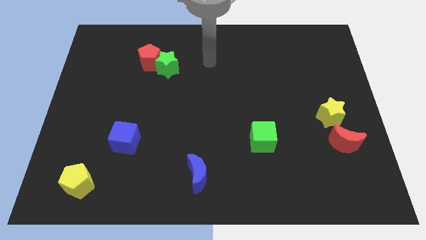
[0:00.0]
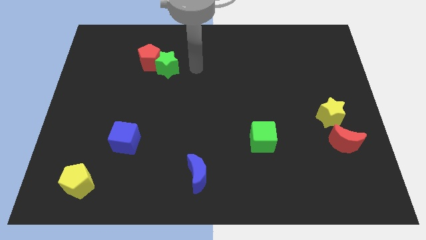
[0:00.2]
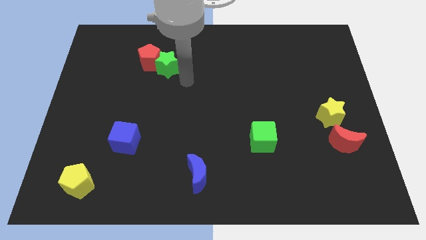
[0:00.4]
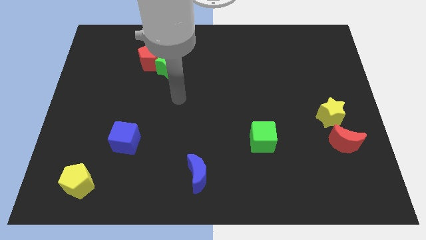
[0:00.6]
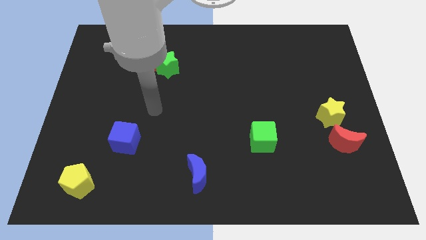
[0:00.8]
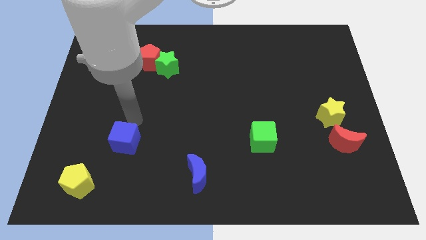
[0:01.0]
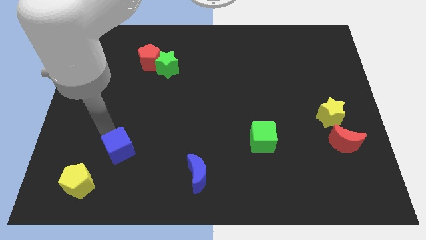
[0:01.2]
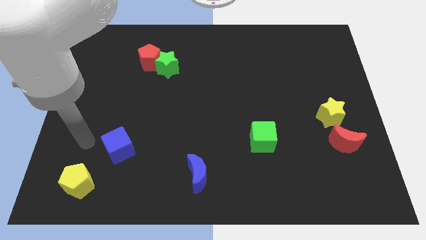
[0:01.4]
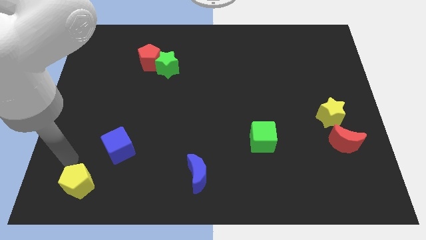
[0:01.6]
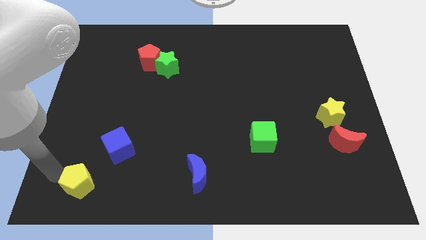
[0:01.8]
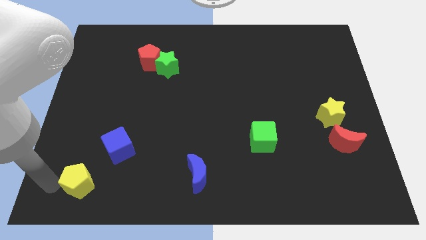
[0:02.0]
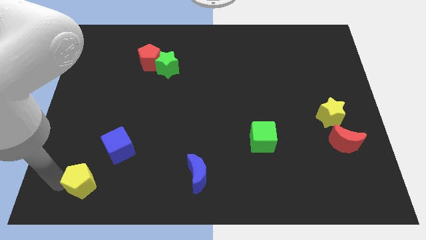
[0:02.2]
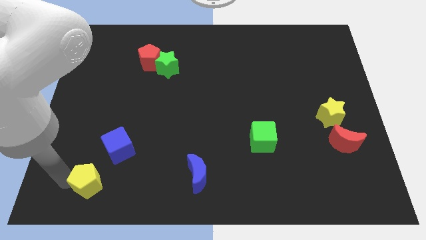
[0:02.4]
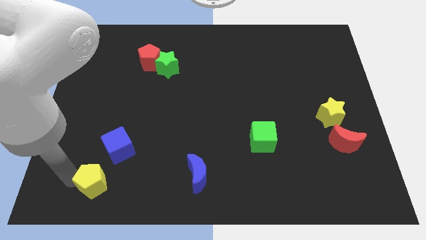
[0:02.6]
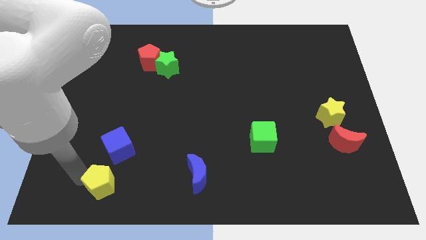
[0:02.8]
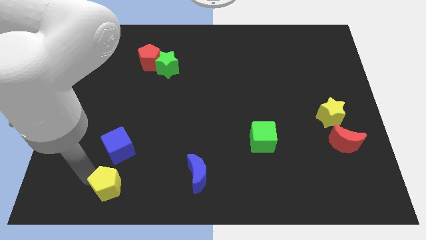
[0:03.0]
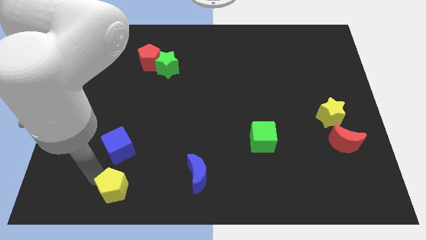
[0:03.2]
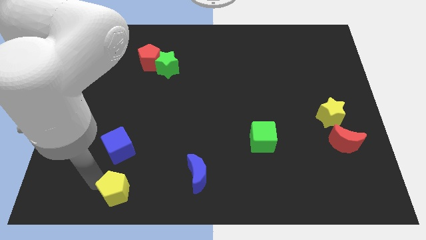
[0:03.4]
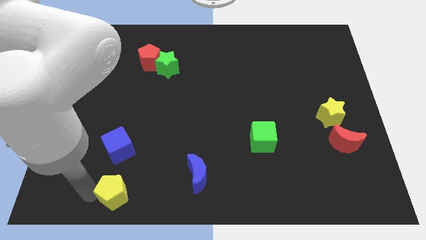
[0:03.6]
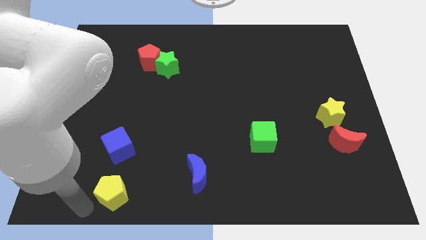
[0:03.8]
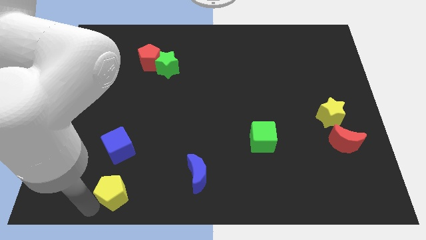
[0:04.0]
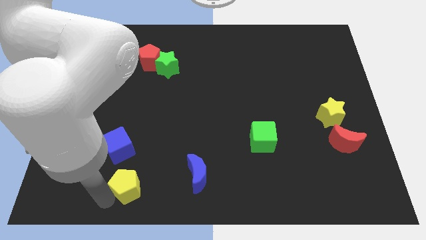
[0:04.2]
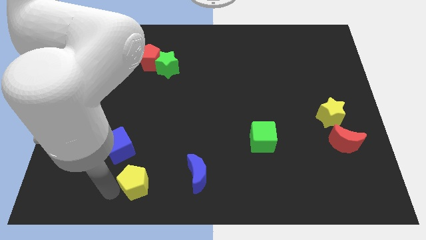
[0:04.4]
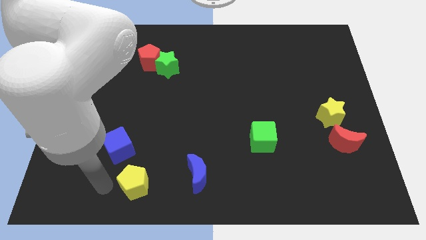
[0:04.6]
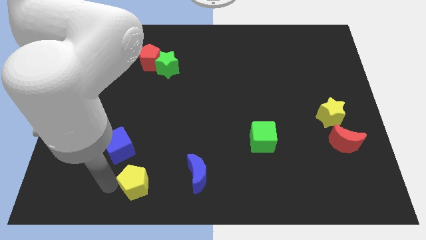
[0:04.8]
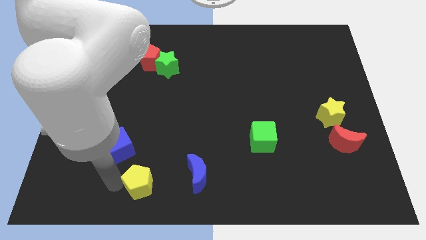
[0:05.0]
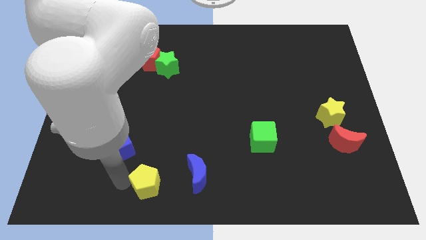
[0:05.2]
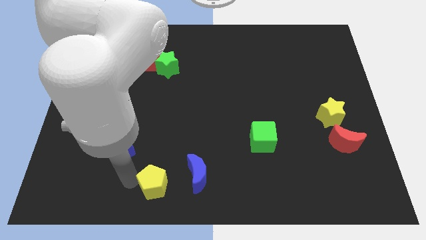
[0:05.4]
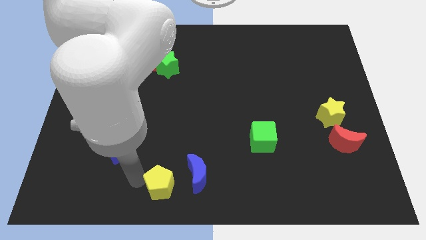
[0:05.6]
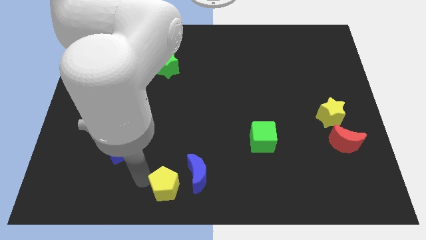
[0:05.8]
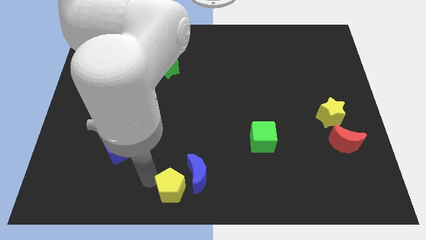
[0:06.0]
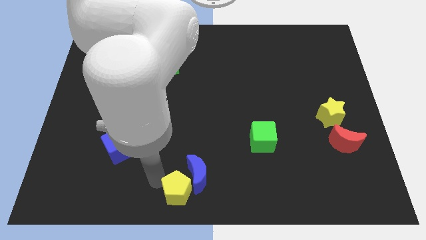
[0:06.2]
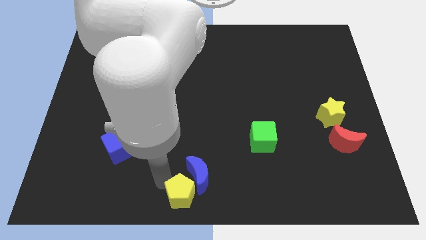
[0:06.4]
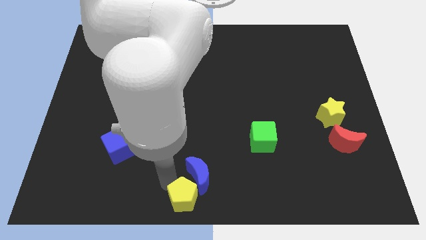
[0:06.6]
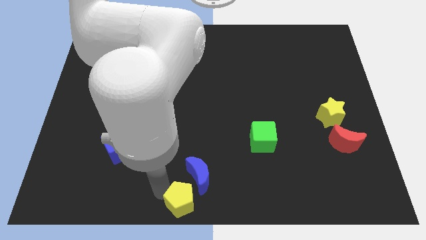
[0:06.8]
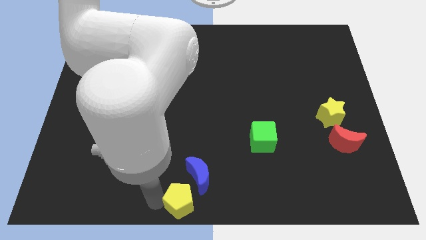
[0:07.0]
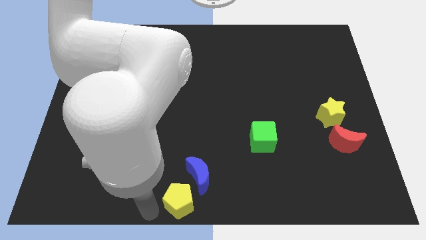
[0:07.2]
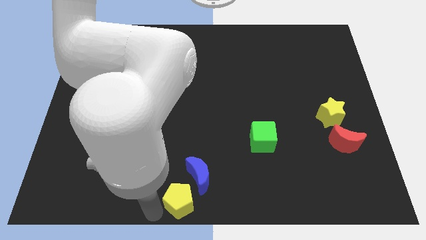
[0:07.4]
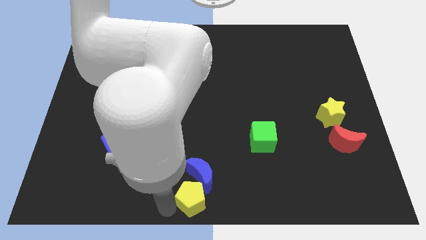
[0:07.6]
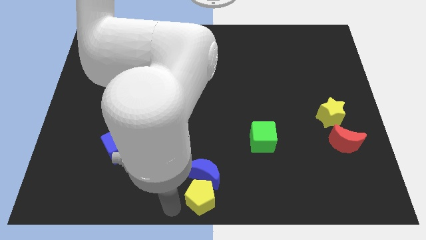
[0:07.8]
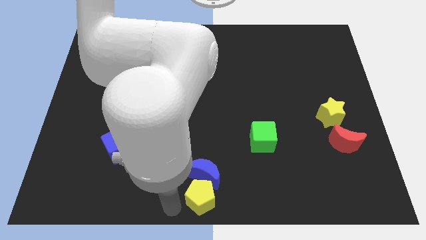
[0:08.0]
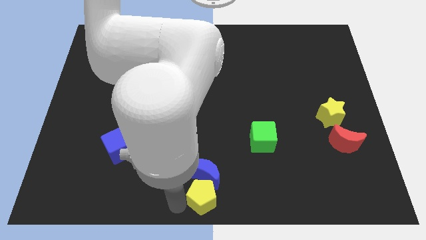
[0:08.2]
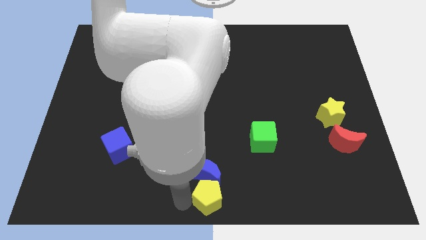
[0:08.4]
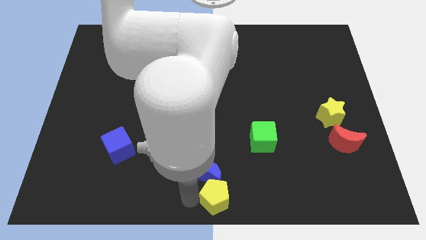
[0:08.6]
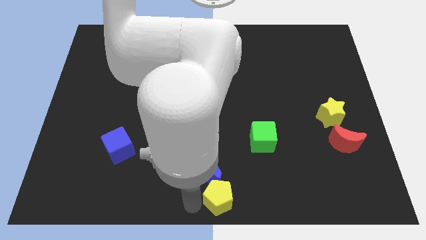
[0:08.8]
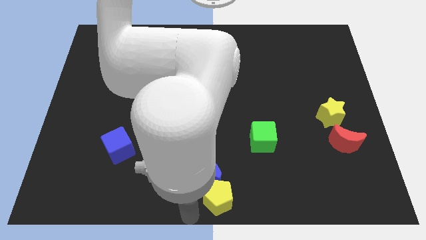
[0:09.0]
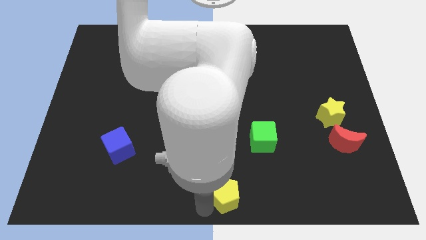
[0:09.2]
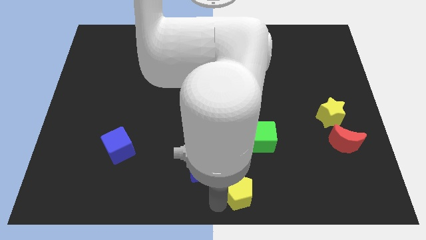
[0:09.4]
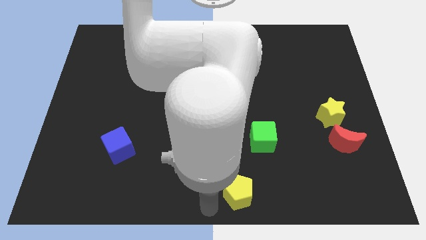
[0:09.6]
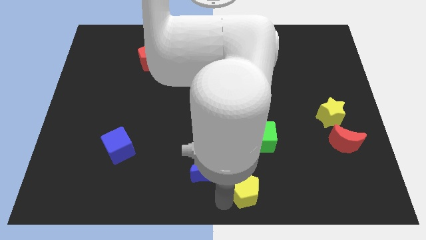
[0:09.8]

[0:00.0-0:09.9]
slide the yellow pentagon below the green cube

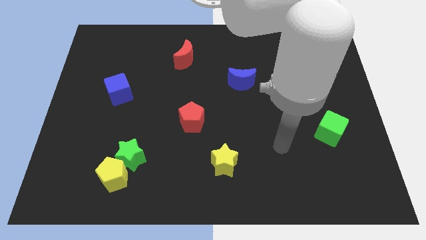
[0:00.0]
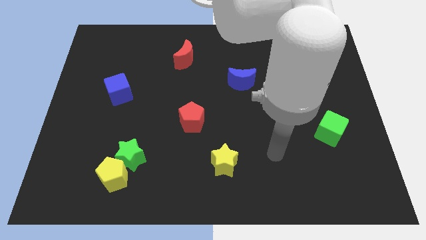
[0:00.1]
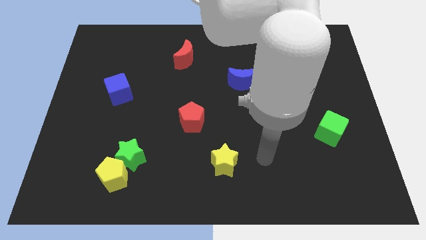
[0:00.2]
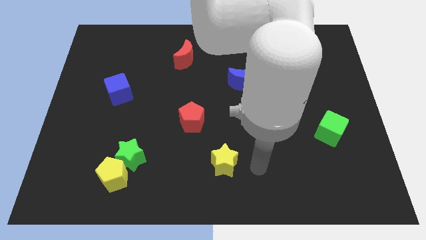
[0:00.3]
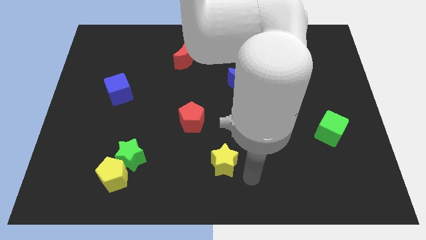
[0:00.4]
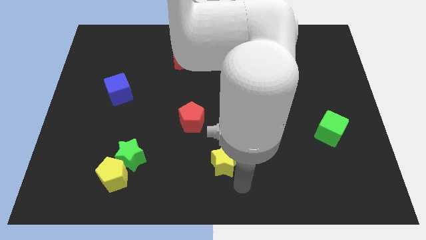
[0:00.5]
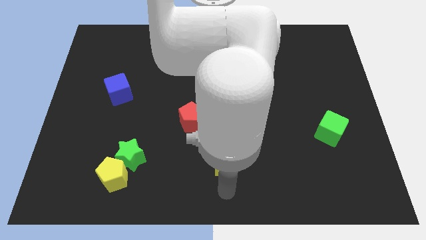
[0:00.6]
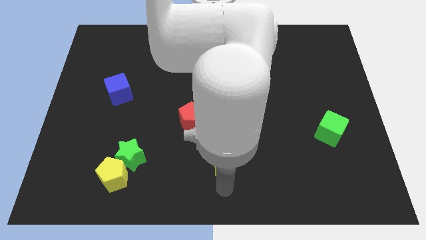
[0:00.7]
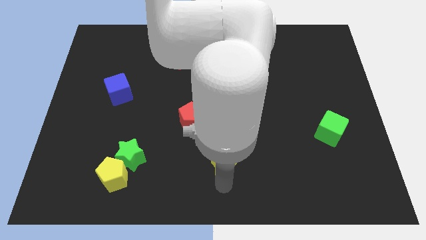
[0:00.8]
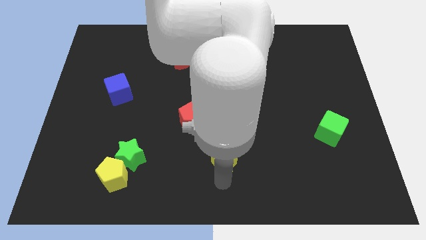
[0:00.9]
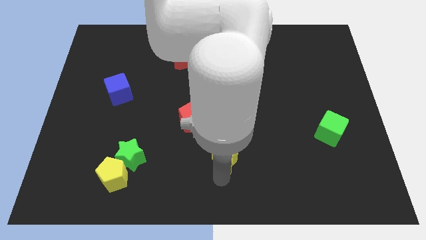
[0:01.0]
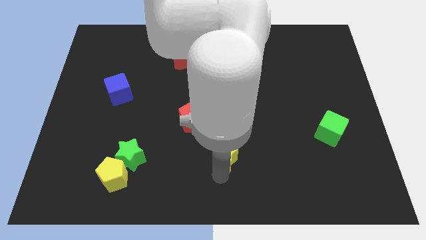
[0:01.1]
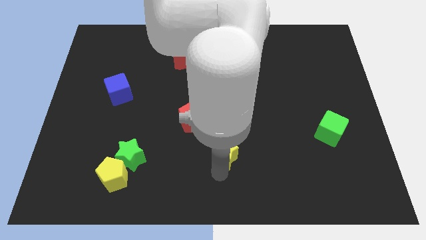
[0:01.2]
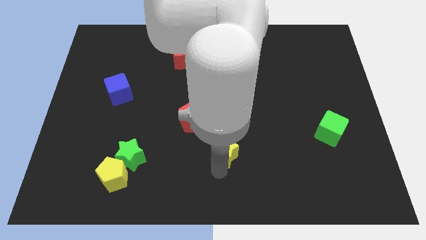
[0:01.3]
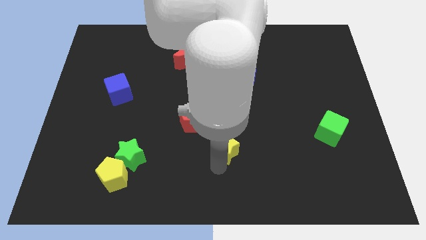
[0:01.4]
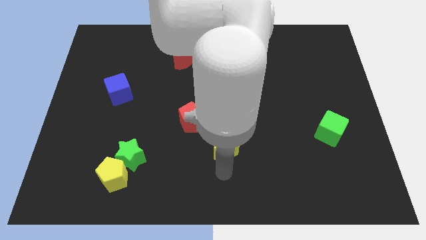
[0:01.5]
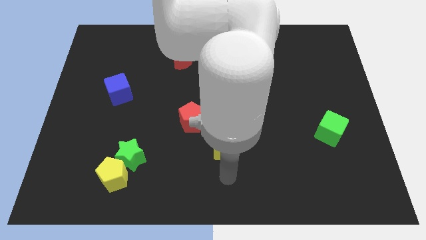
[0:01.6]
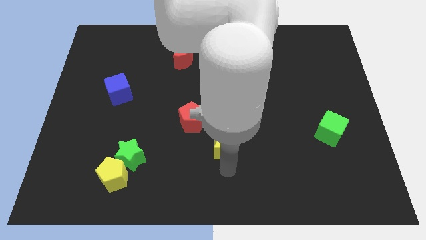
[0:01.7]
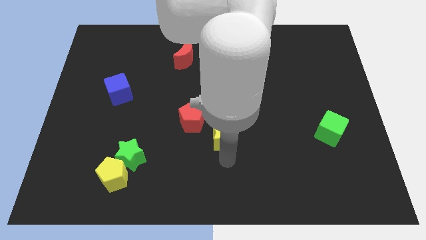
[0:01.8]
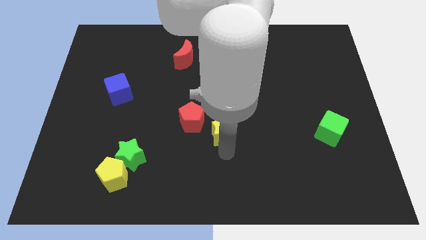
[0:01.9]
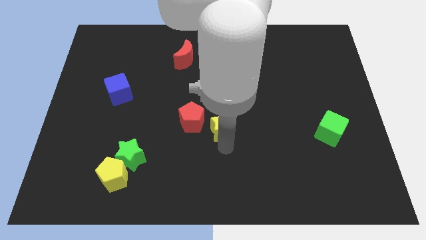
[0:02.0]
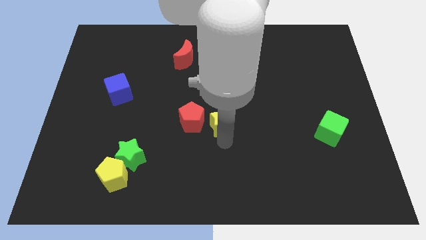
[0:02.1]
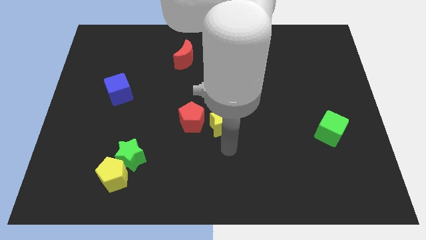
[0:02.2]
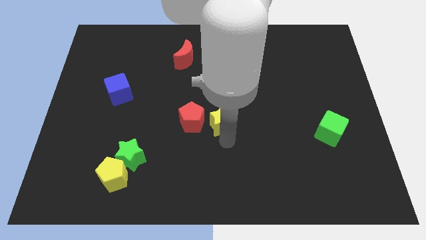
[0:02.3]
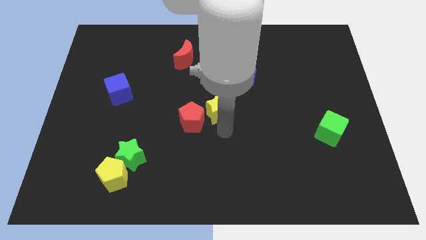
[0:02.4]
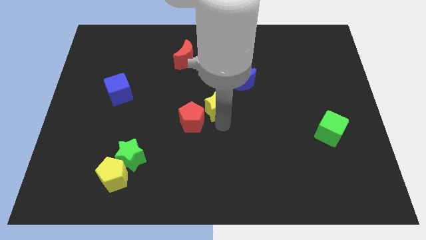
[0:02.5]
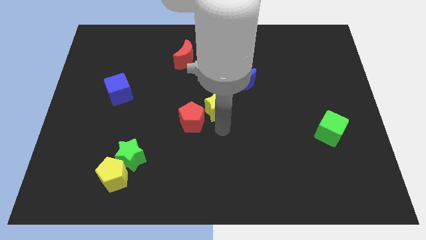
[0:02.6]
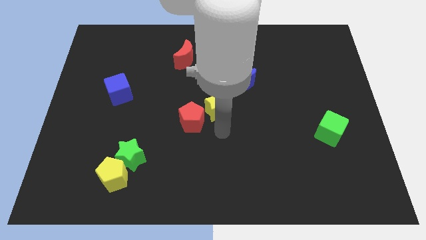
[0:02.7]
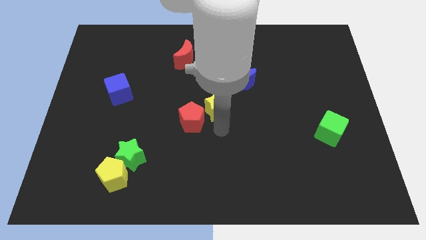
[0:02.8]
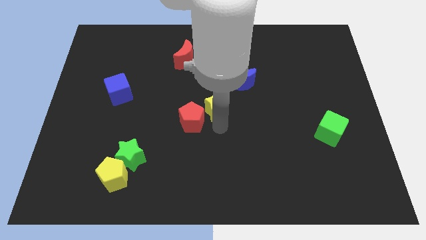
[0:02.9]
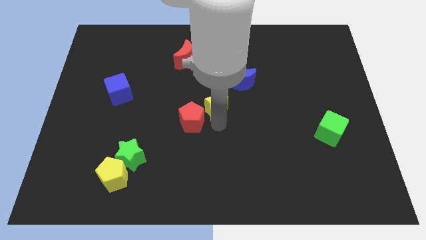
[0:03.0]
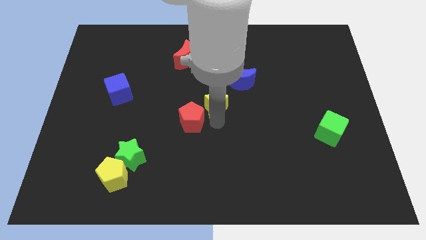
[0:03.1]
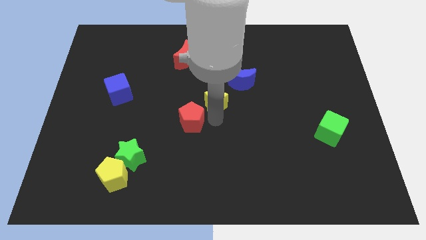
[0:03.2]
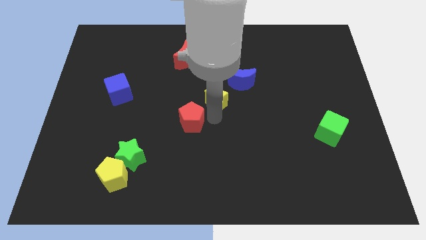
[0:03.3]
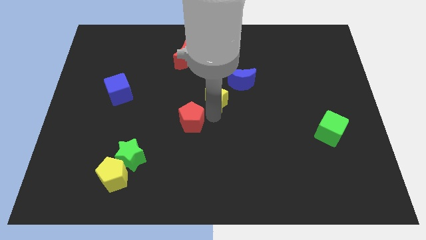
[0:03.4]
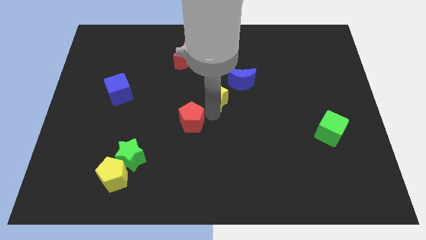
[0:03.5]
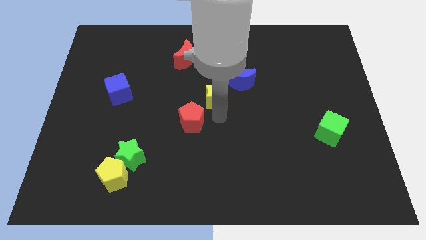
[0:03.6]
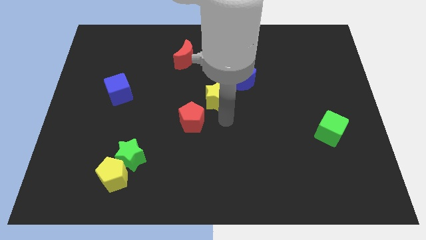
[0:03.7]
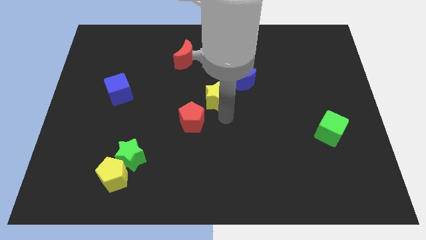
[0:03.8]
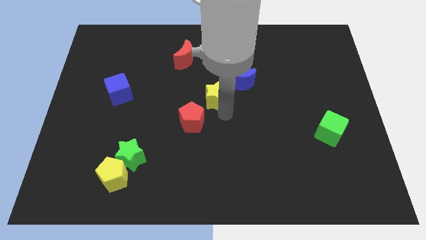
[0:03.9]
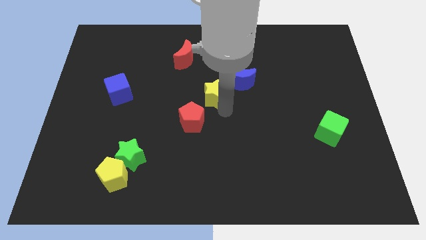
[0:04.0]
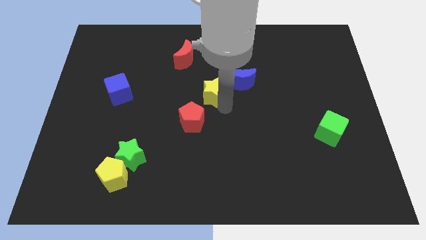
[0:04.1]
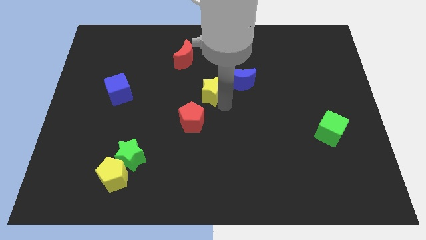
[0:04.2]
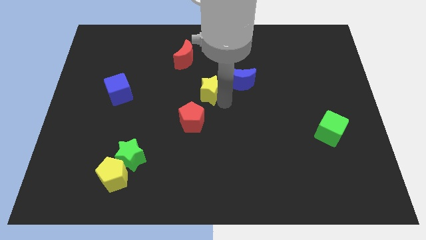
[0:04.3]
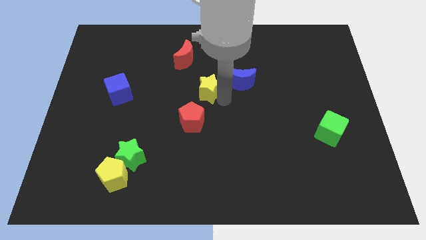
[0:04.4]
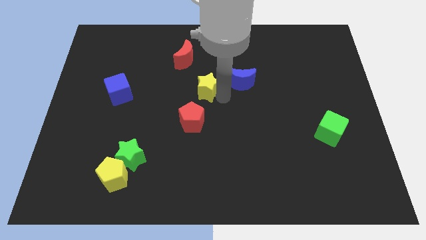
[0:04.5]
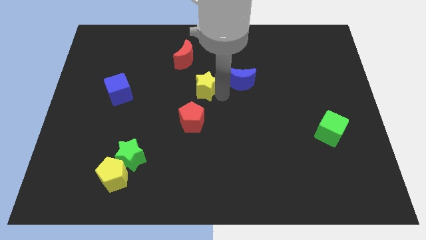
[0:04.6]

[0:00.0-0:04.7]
move the yellow star to the bottom right side of the red moon
